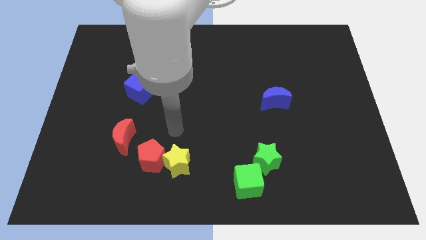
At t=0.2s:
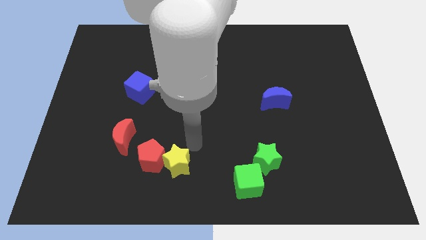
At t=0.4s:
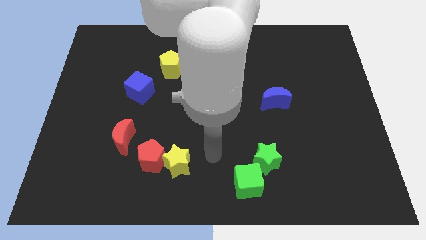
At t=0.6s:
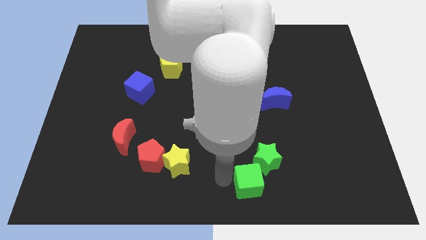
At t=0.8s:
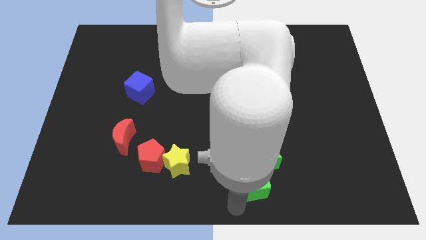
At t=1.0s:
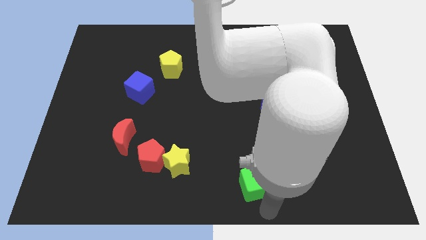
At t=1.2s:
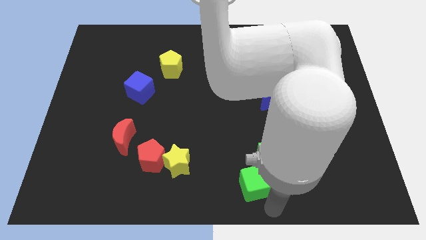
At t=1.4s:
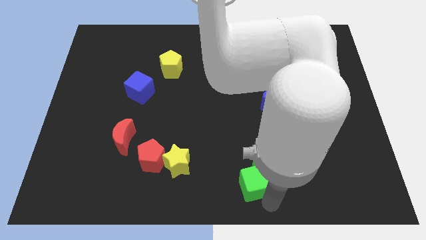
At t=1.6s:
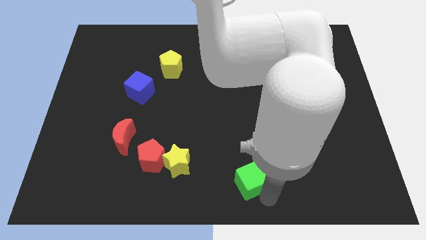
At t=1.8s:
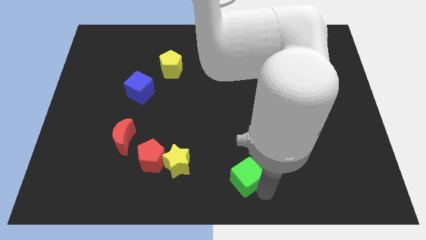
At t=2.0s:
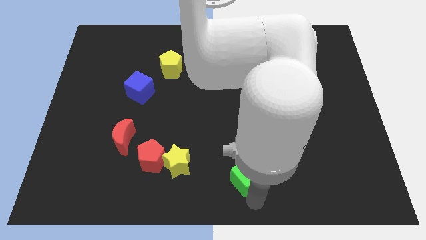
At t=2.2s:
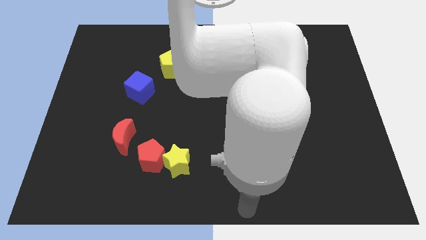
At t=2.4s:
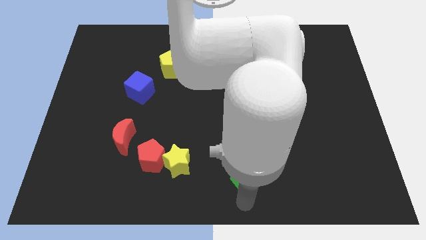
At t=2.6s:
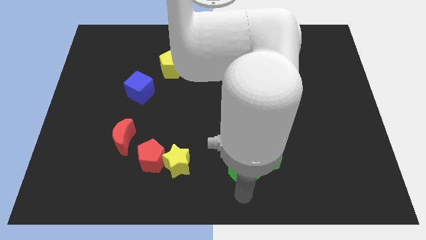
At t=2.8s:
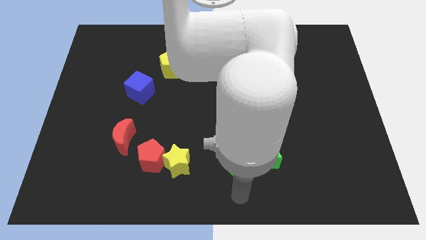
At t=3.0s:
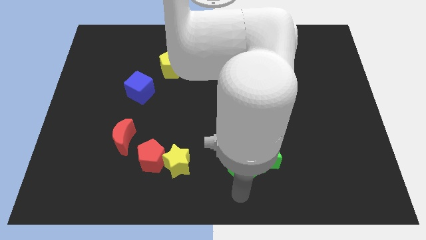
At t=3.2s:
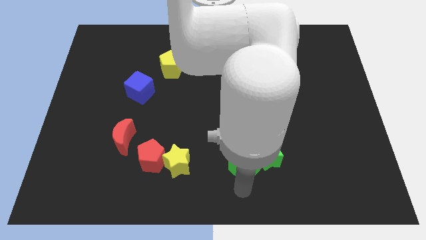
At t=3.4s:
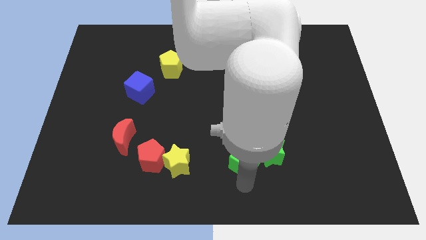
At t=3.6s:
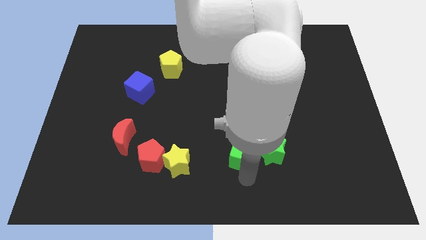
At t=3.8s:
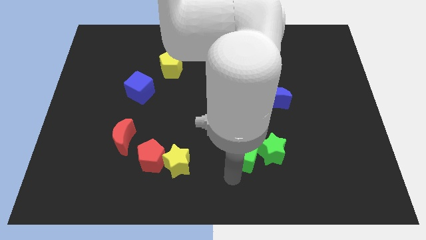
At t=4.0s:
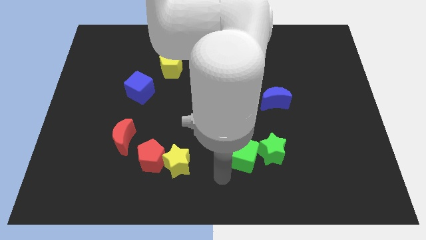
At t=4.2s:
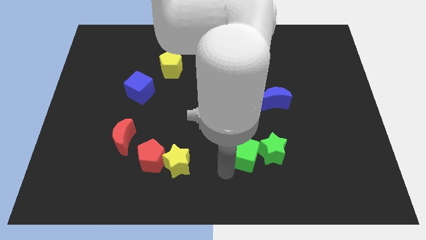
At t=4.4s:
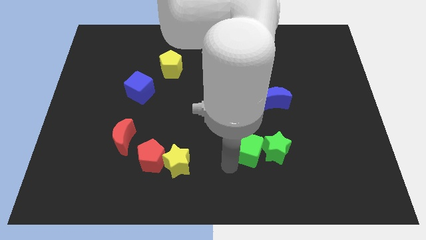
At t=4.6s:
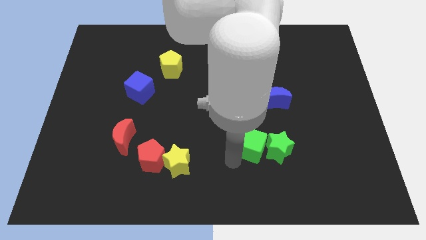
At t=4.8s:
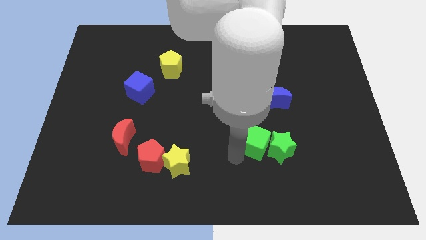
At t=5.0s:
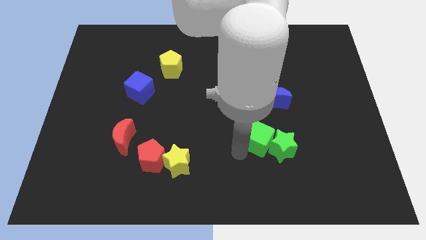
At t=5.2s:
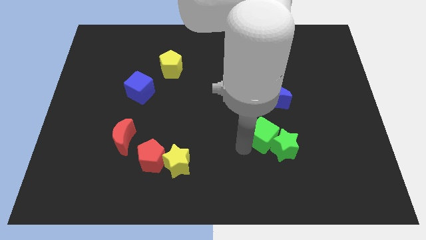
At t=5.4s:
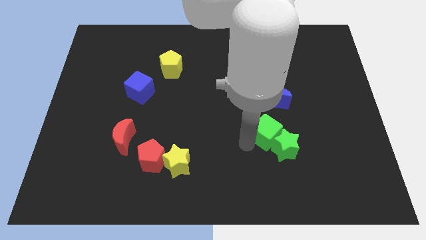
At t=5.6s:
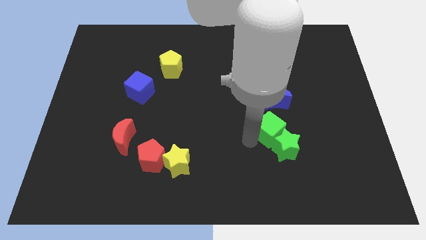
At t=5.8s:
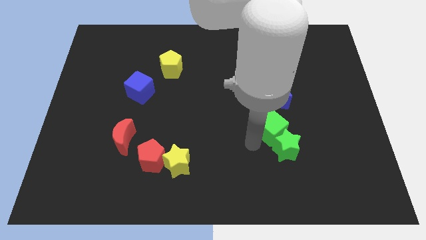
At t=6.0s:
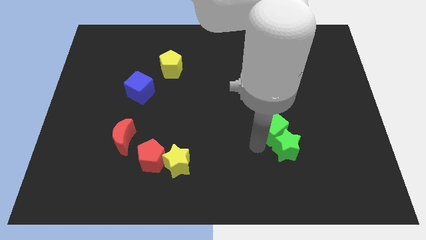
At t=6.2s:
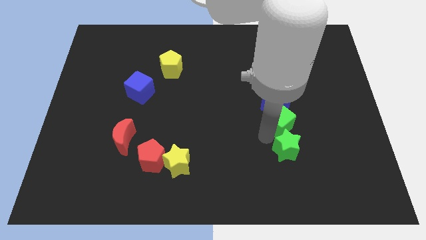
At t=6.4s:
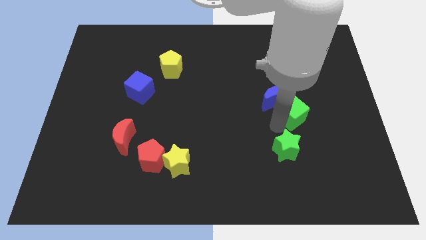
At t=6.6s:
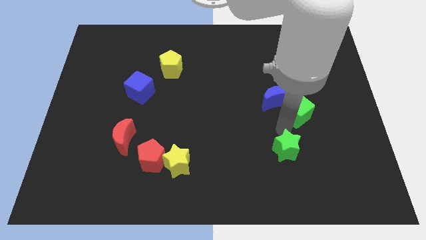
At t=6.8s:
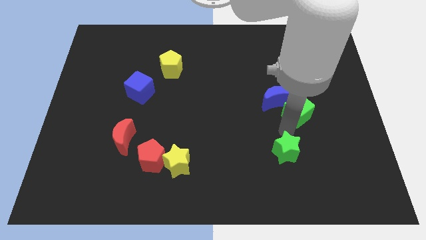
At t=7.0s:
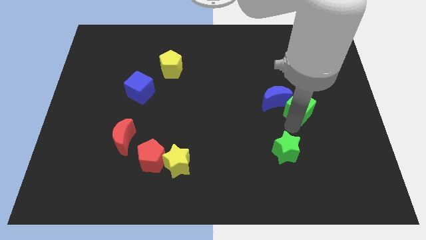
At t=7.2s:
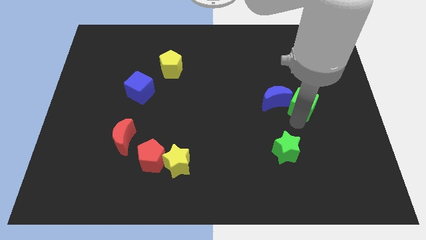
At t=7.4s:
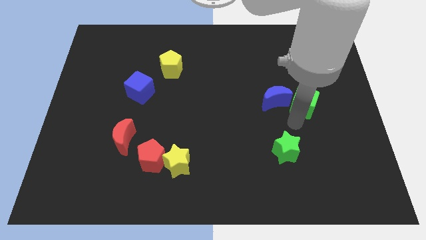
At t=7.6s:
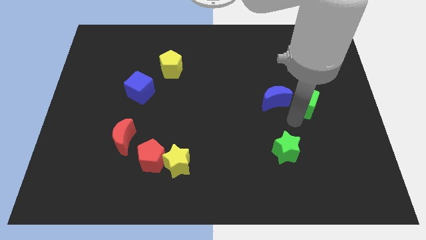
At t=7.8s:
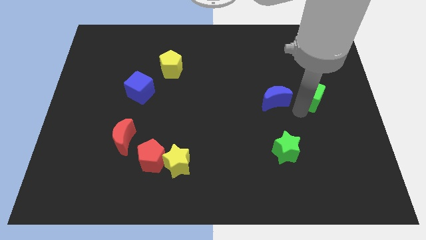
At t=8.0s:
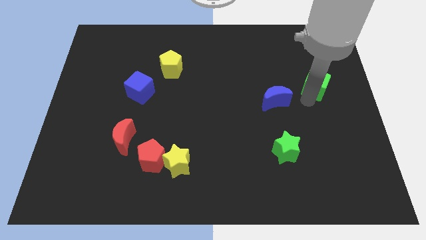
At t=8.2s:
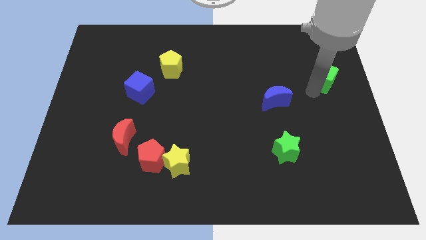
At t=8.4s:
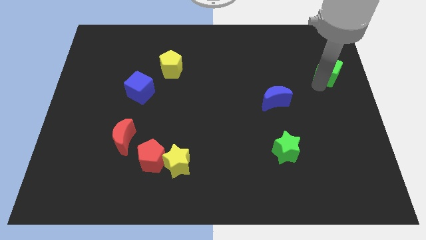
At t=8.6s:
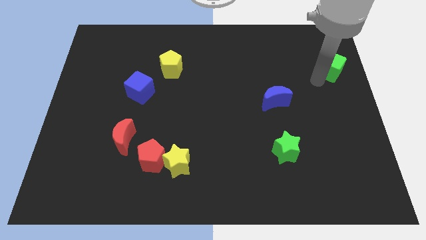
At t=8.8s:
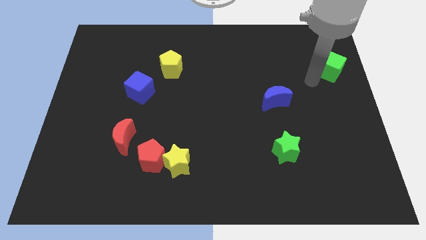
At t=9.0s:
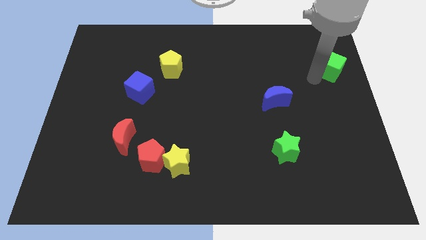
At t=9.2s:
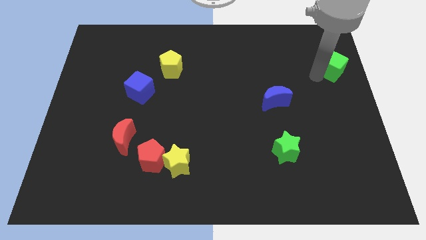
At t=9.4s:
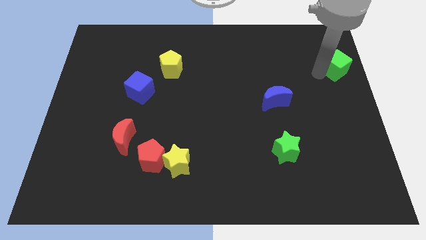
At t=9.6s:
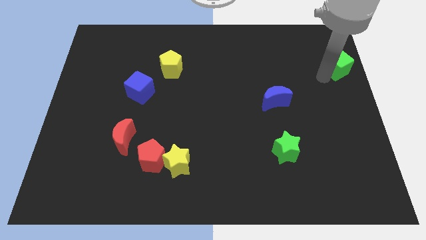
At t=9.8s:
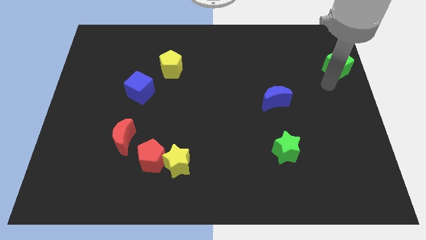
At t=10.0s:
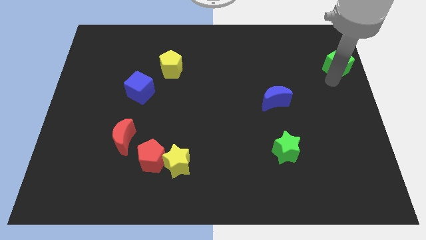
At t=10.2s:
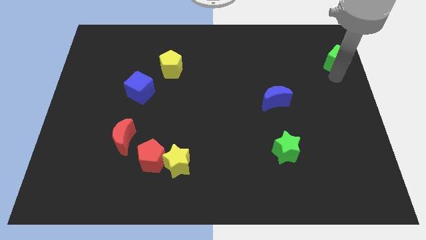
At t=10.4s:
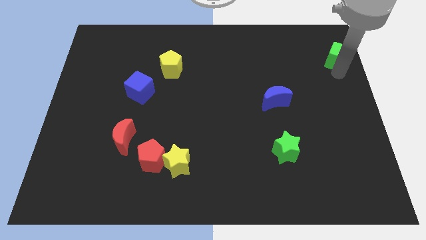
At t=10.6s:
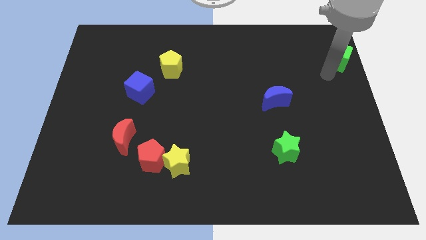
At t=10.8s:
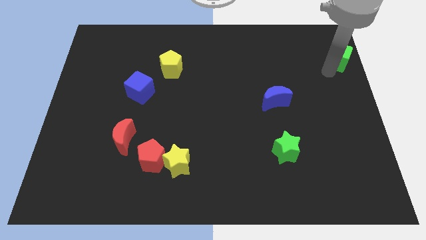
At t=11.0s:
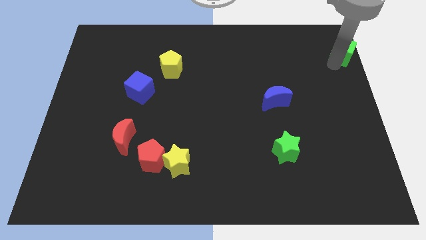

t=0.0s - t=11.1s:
push the green cube to the top right

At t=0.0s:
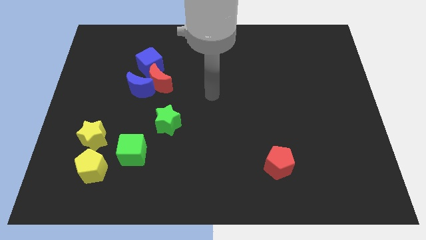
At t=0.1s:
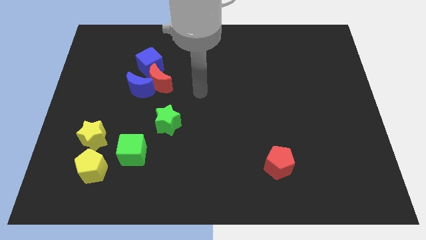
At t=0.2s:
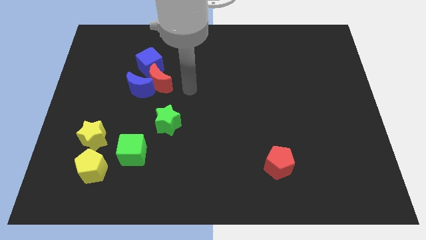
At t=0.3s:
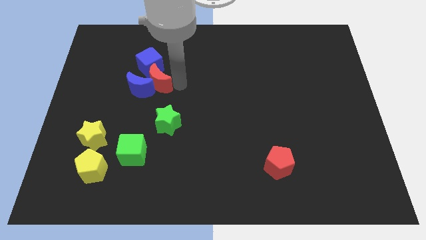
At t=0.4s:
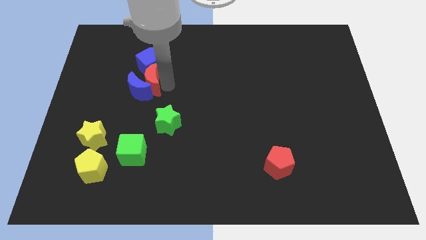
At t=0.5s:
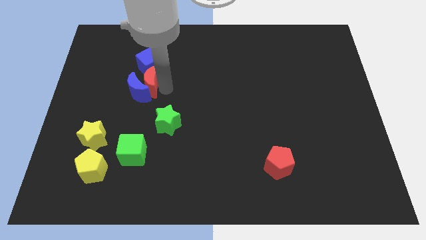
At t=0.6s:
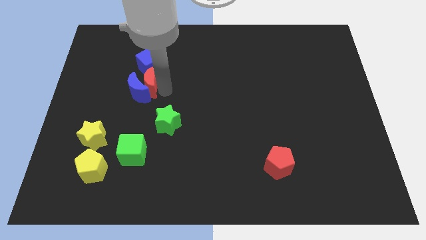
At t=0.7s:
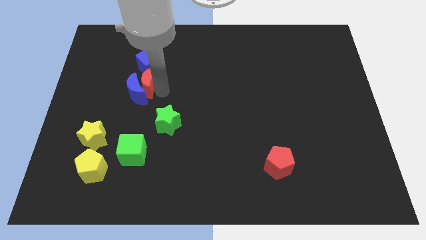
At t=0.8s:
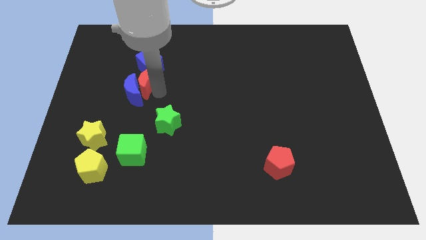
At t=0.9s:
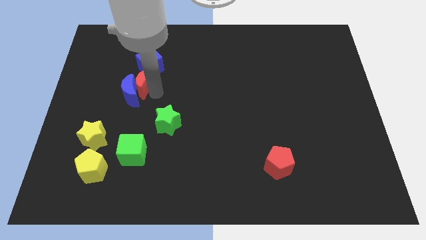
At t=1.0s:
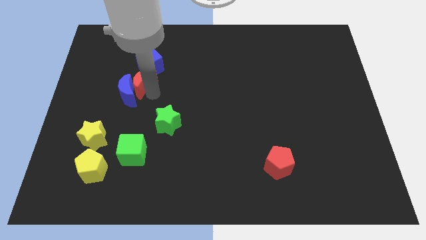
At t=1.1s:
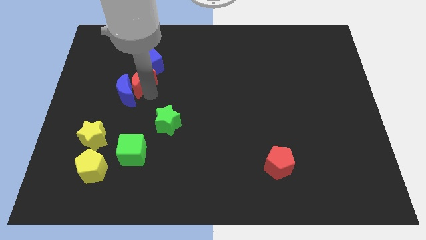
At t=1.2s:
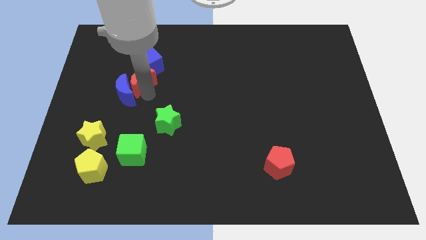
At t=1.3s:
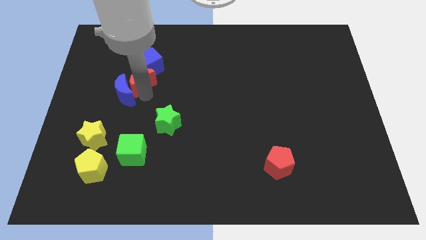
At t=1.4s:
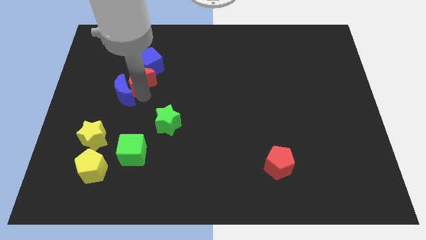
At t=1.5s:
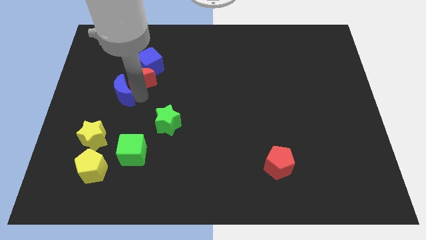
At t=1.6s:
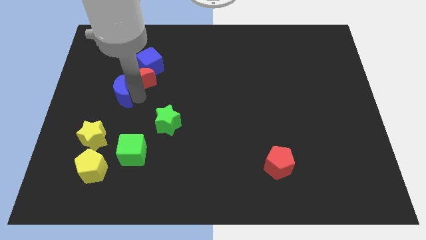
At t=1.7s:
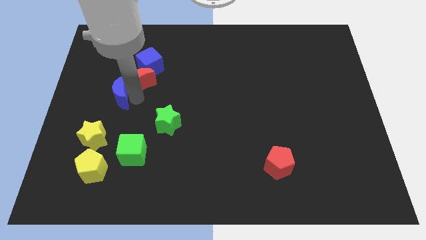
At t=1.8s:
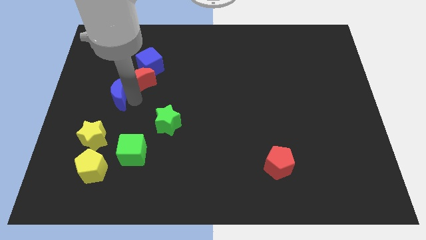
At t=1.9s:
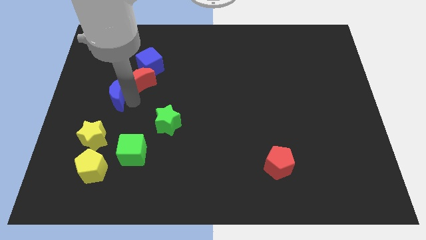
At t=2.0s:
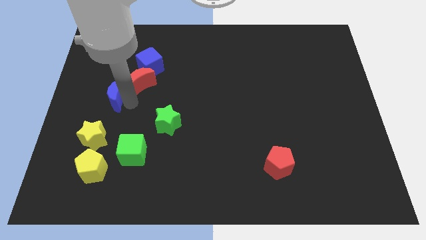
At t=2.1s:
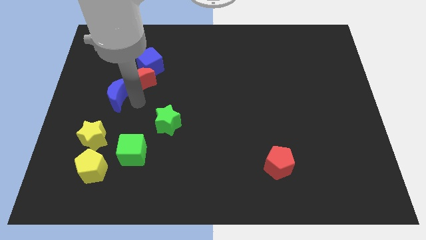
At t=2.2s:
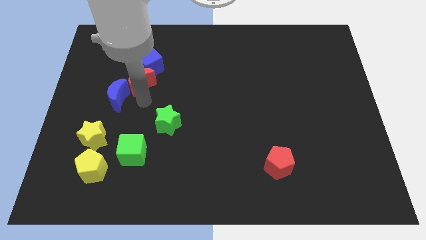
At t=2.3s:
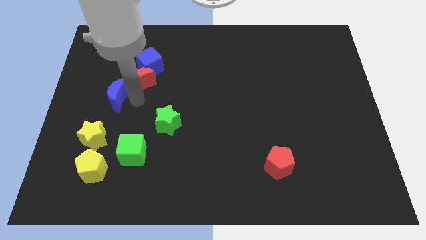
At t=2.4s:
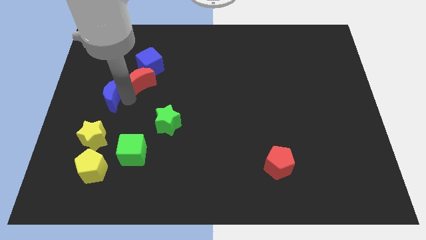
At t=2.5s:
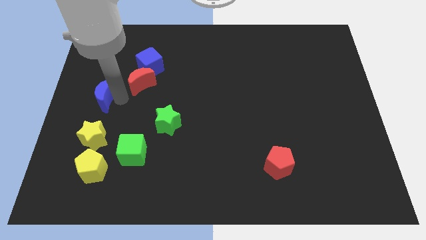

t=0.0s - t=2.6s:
slide the blue moon to the left side
